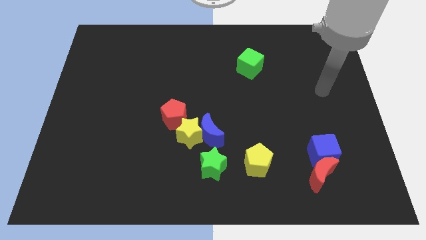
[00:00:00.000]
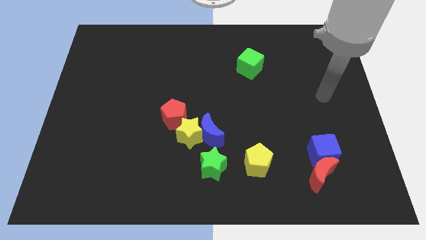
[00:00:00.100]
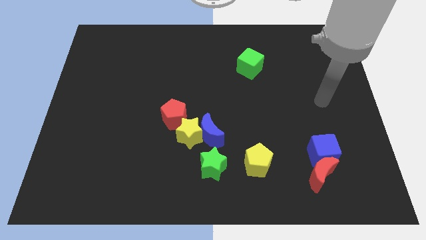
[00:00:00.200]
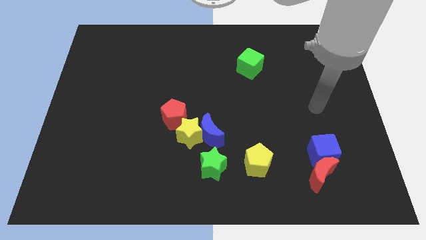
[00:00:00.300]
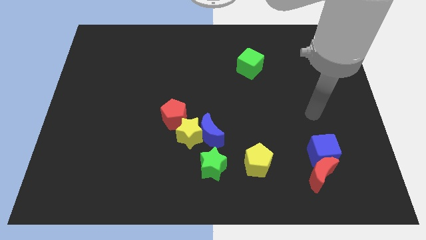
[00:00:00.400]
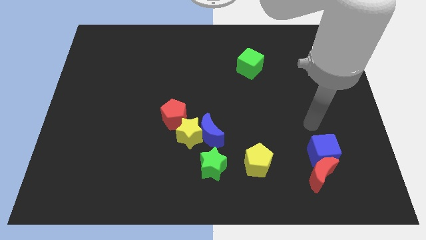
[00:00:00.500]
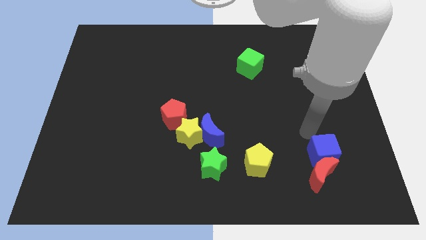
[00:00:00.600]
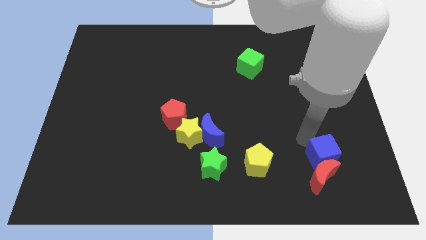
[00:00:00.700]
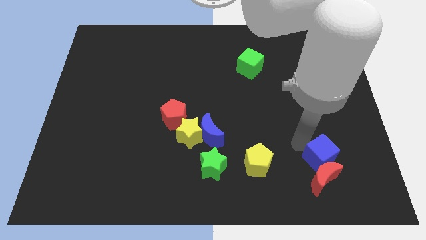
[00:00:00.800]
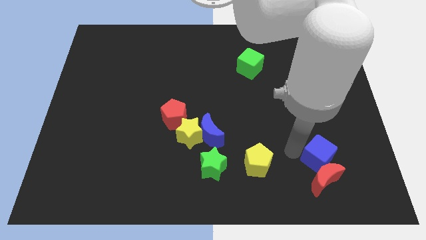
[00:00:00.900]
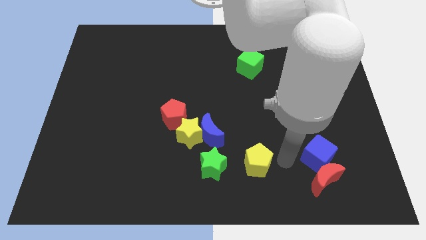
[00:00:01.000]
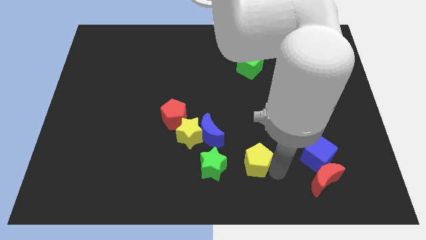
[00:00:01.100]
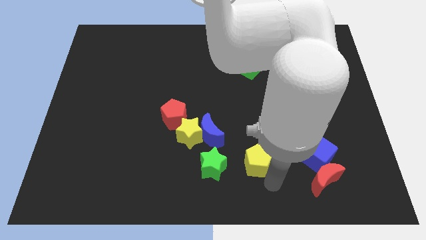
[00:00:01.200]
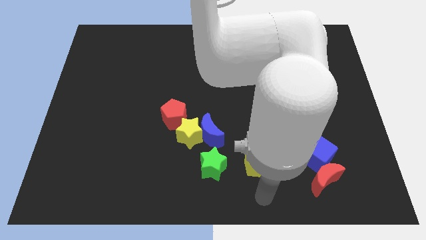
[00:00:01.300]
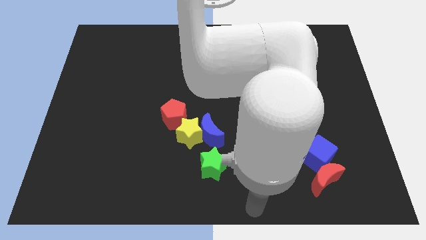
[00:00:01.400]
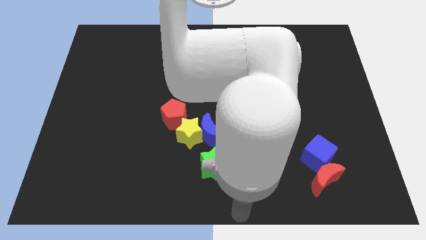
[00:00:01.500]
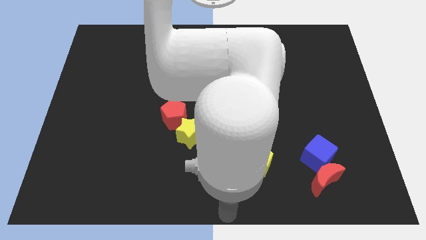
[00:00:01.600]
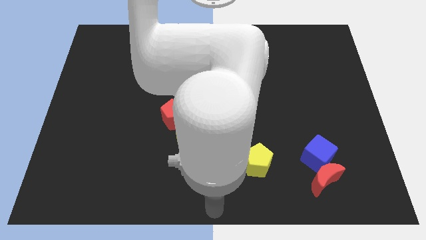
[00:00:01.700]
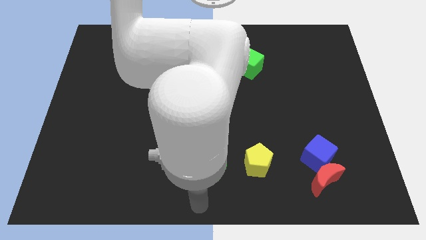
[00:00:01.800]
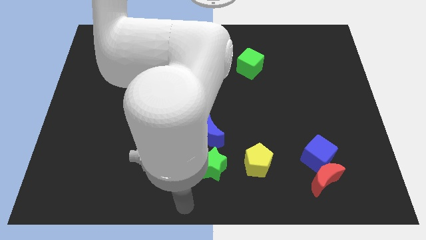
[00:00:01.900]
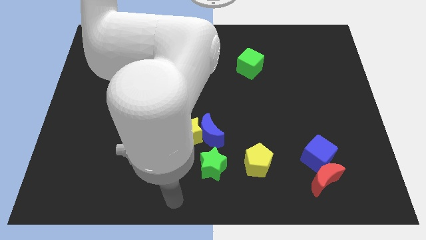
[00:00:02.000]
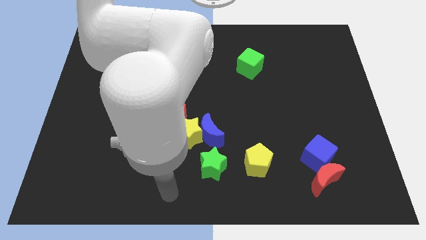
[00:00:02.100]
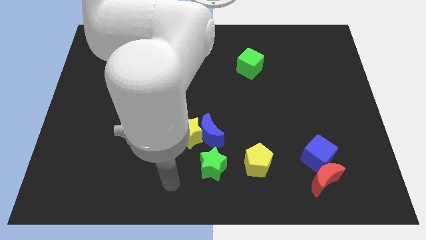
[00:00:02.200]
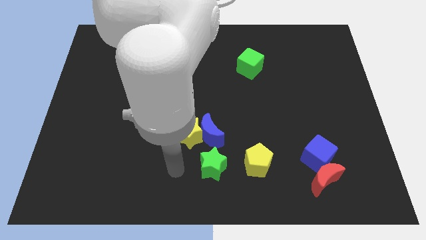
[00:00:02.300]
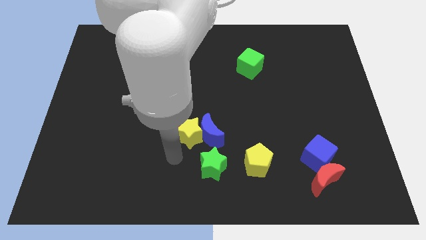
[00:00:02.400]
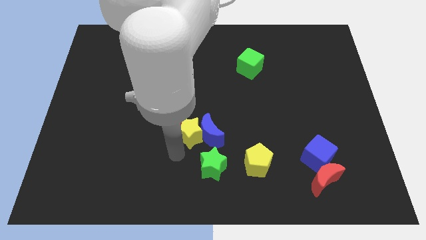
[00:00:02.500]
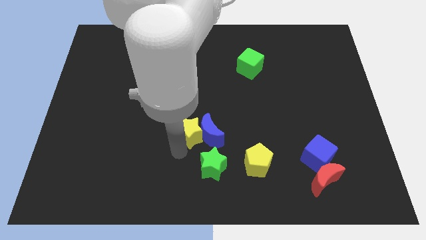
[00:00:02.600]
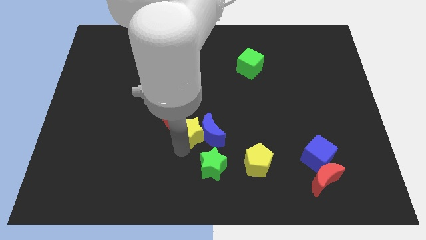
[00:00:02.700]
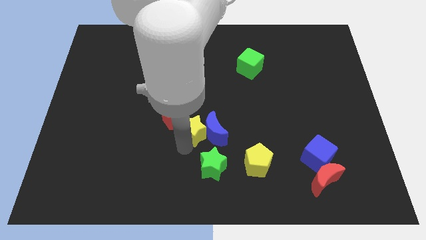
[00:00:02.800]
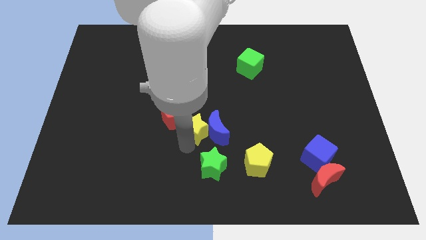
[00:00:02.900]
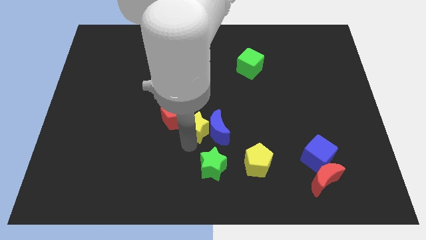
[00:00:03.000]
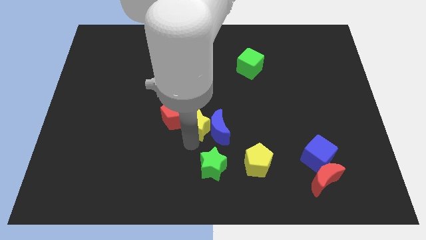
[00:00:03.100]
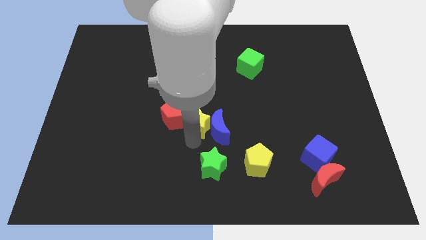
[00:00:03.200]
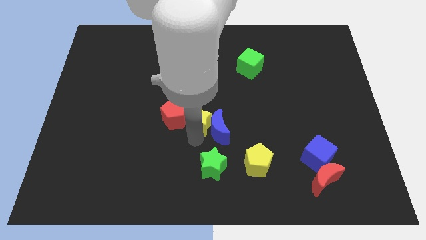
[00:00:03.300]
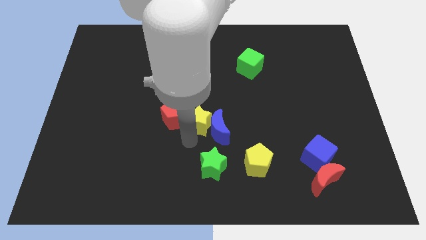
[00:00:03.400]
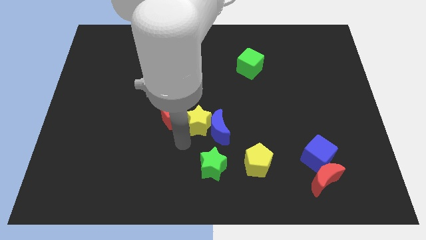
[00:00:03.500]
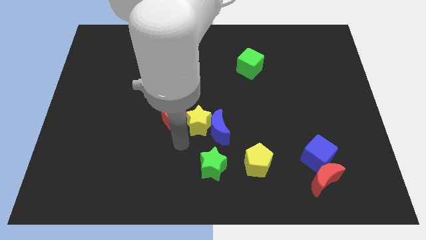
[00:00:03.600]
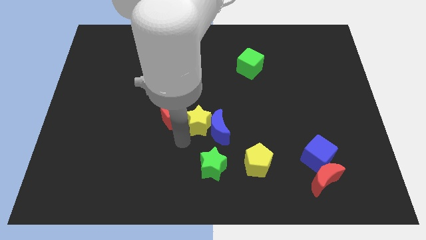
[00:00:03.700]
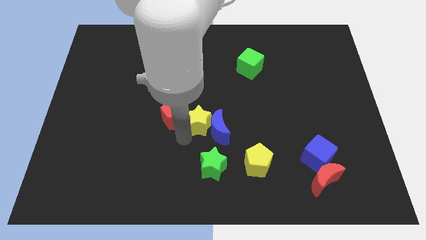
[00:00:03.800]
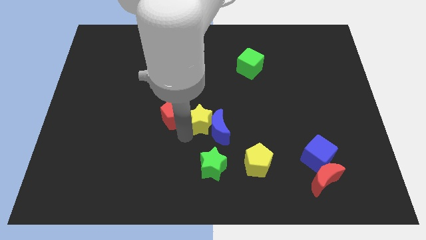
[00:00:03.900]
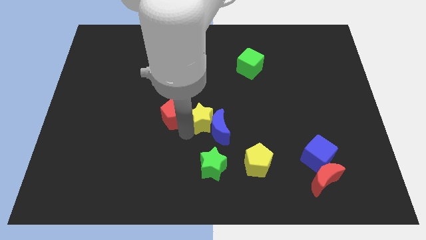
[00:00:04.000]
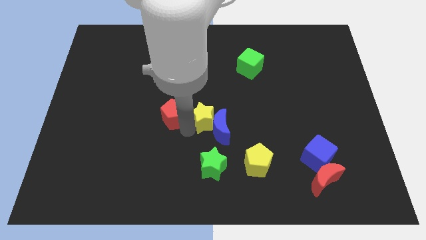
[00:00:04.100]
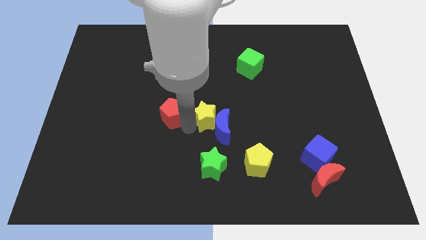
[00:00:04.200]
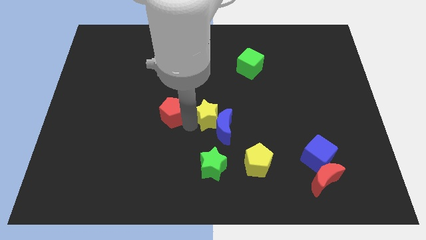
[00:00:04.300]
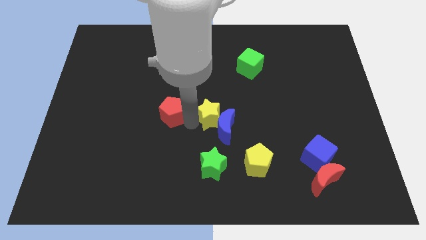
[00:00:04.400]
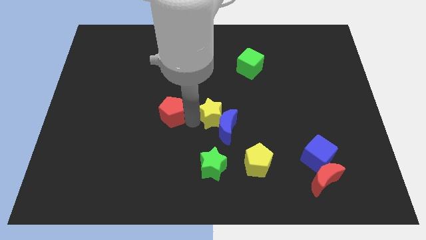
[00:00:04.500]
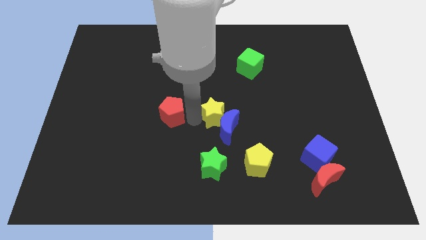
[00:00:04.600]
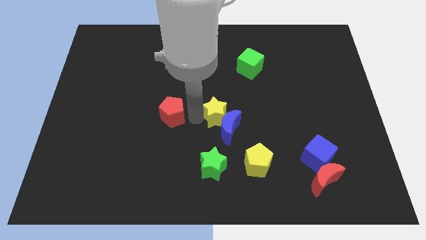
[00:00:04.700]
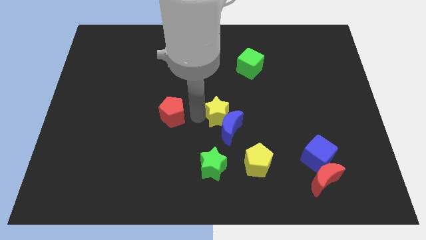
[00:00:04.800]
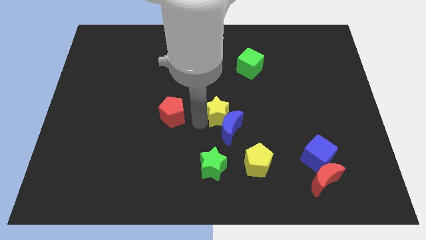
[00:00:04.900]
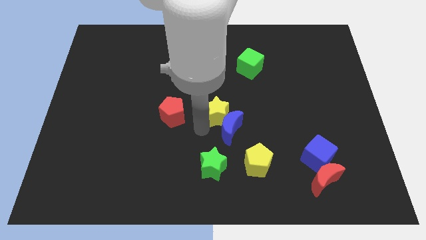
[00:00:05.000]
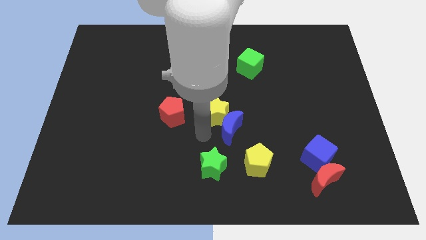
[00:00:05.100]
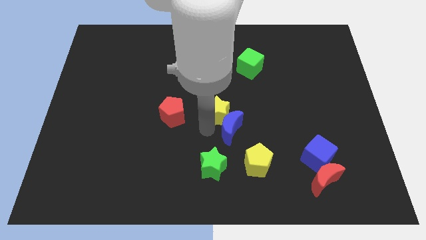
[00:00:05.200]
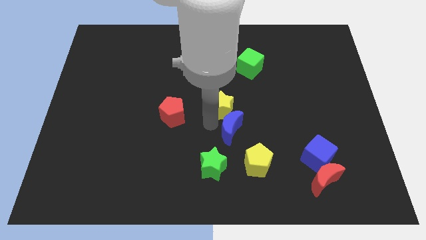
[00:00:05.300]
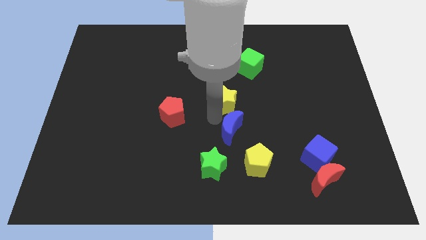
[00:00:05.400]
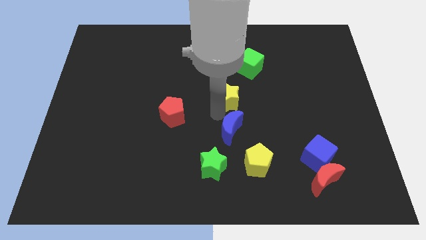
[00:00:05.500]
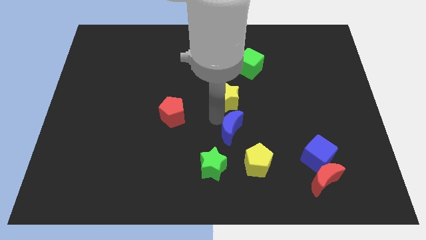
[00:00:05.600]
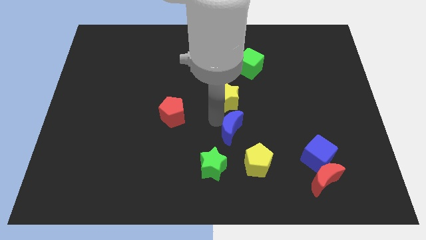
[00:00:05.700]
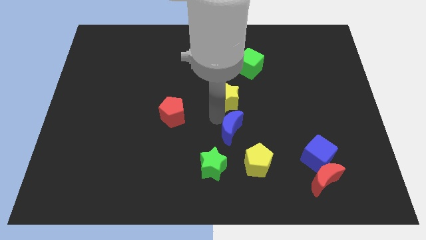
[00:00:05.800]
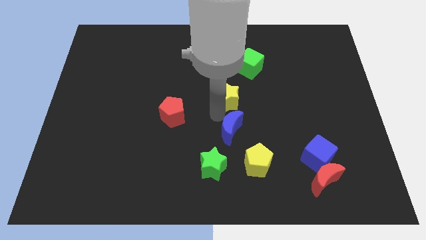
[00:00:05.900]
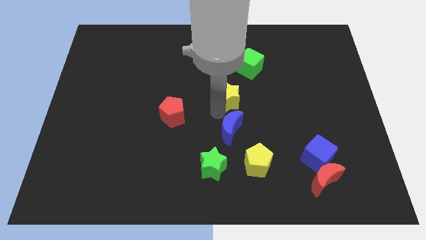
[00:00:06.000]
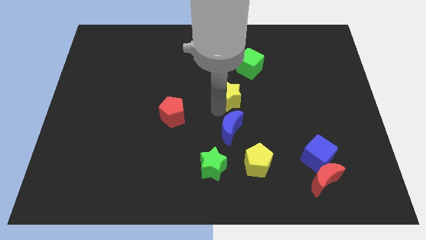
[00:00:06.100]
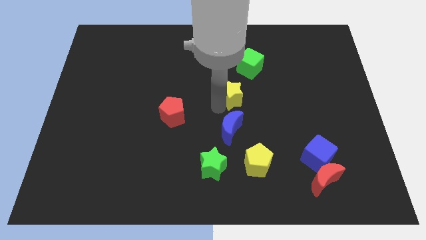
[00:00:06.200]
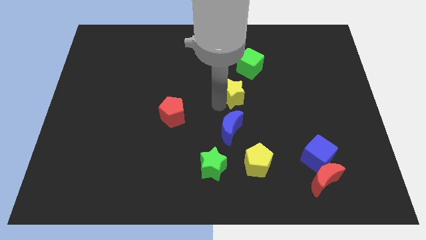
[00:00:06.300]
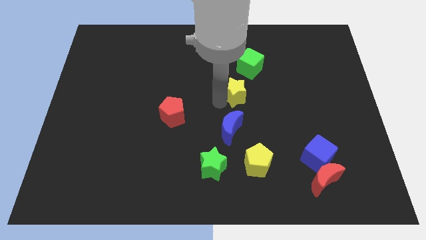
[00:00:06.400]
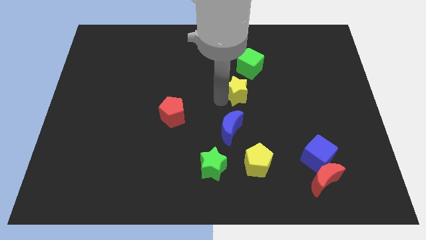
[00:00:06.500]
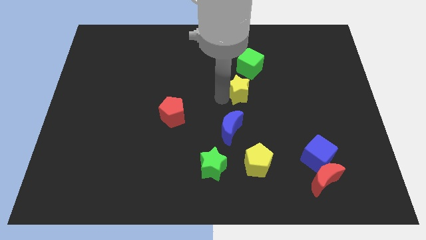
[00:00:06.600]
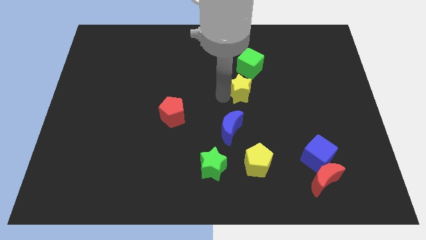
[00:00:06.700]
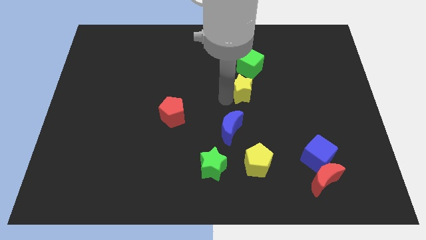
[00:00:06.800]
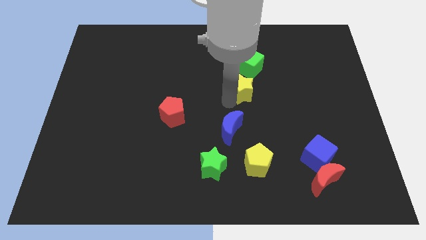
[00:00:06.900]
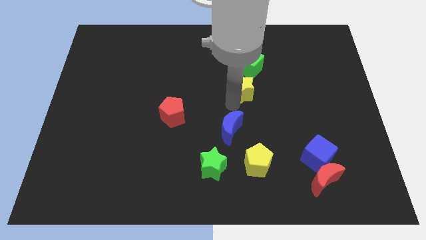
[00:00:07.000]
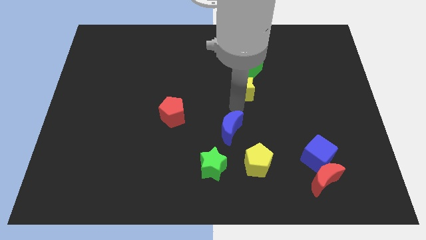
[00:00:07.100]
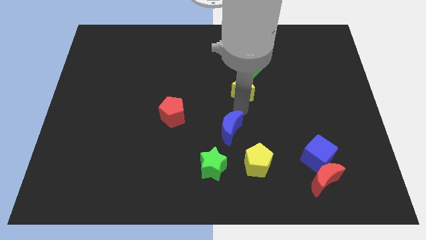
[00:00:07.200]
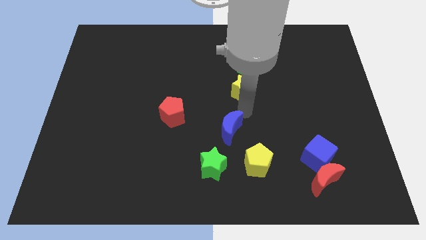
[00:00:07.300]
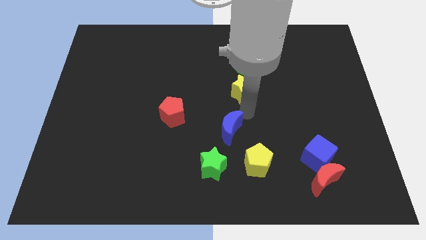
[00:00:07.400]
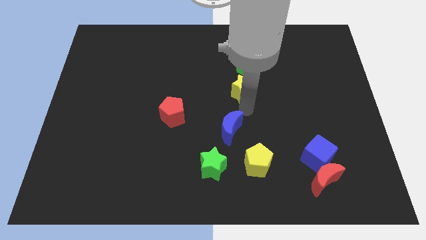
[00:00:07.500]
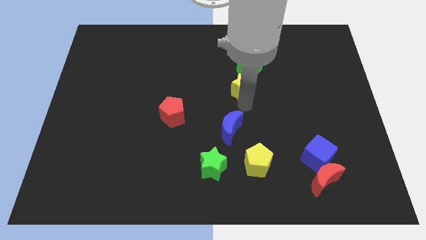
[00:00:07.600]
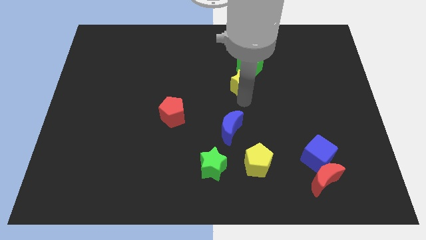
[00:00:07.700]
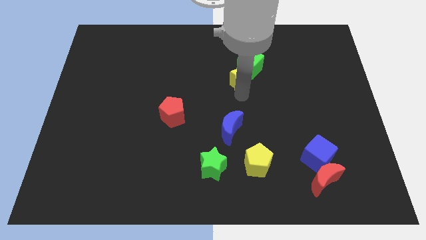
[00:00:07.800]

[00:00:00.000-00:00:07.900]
slide the yellow star towards the green cube
